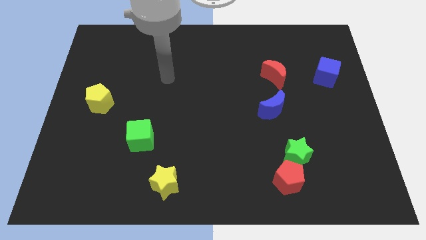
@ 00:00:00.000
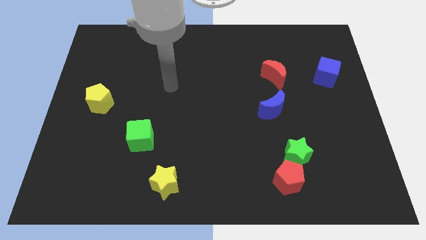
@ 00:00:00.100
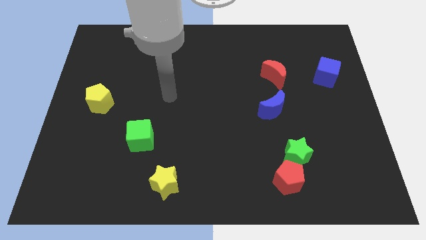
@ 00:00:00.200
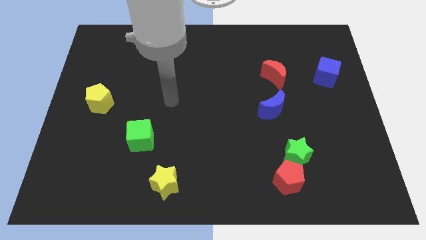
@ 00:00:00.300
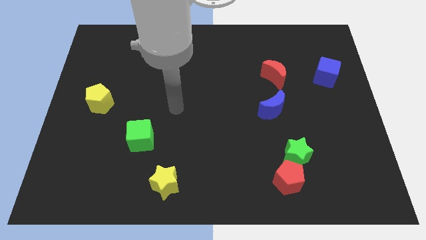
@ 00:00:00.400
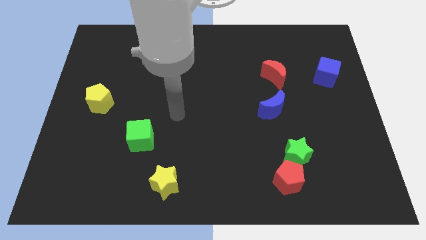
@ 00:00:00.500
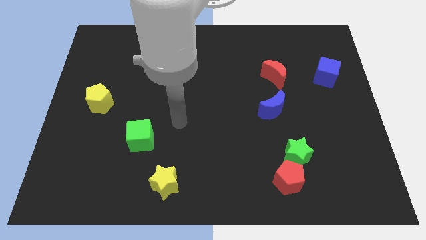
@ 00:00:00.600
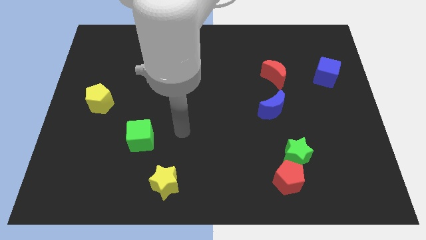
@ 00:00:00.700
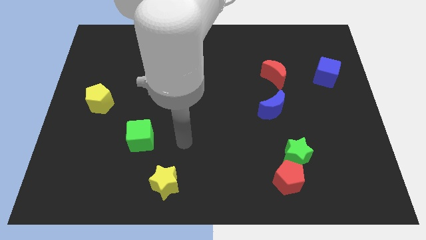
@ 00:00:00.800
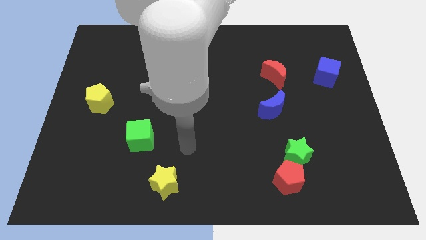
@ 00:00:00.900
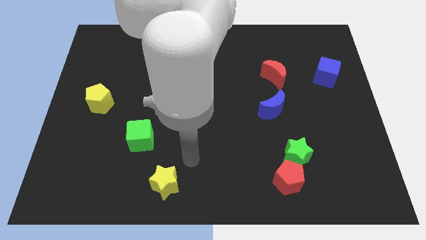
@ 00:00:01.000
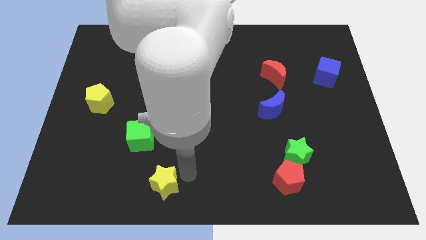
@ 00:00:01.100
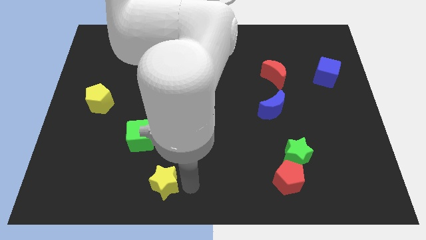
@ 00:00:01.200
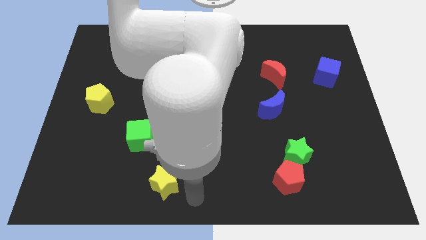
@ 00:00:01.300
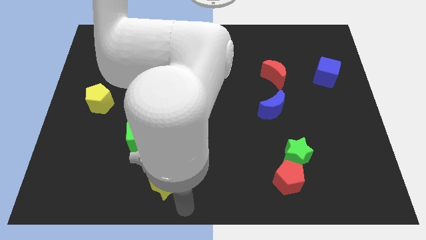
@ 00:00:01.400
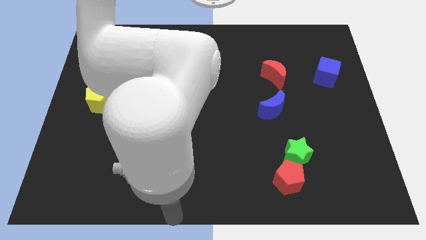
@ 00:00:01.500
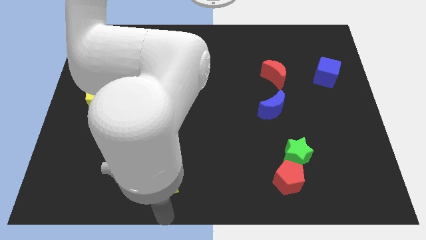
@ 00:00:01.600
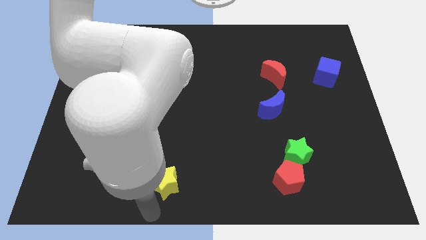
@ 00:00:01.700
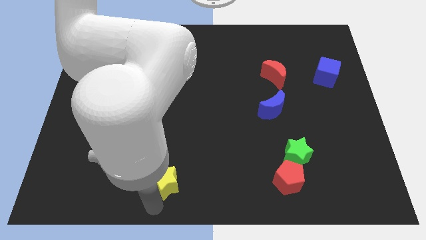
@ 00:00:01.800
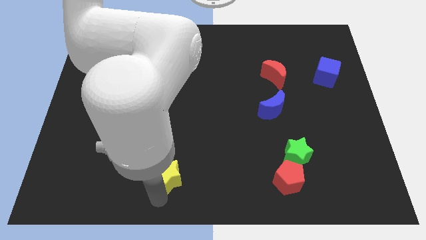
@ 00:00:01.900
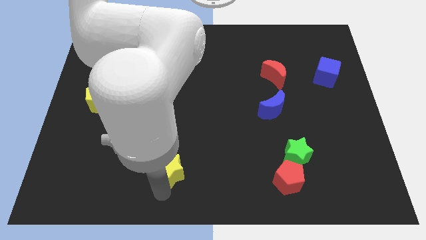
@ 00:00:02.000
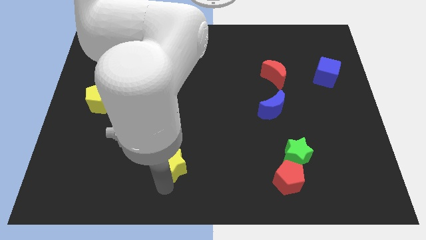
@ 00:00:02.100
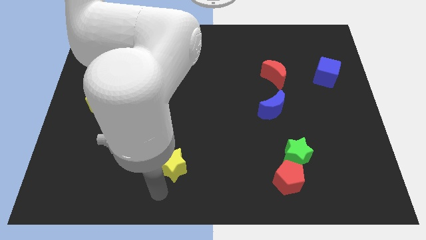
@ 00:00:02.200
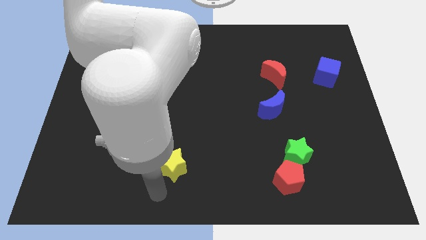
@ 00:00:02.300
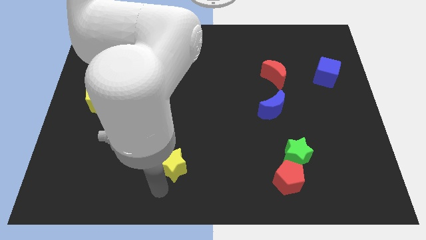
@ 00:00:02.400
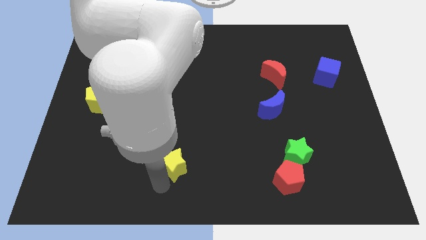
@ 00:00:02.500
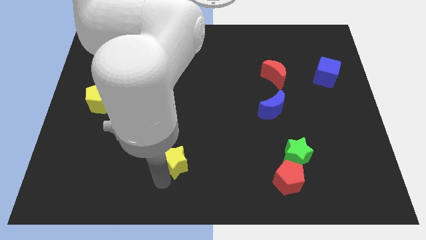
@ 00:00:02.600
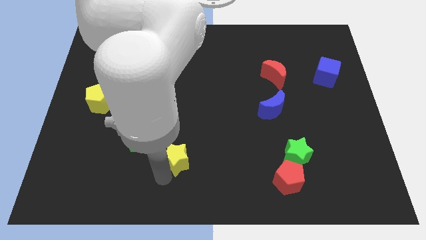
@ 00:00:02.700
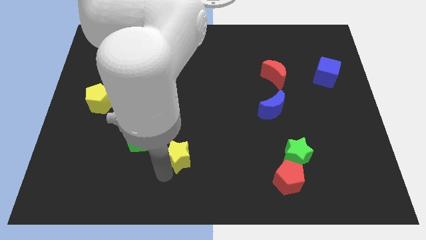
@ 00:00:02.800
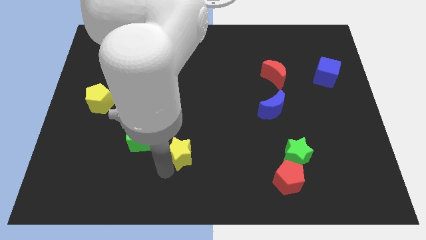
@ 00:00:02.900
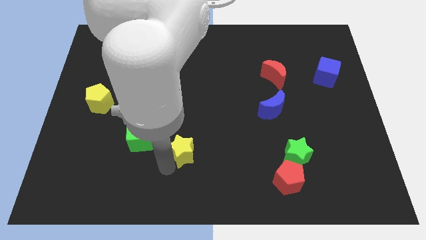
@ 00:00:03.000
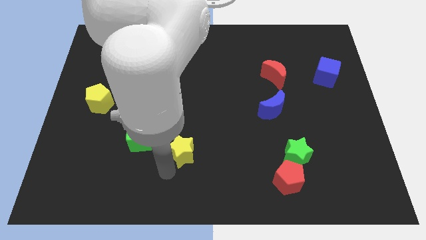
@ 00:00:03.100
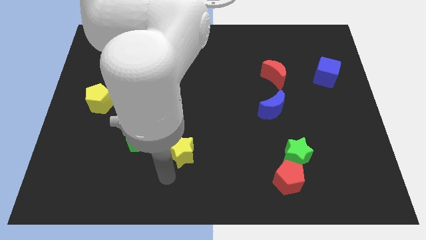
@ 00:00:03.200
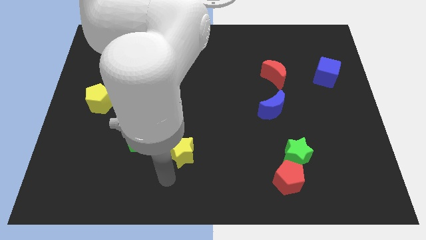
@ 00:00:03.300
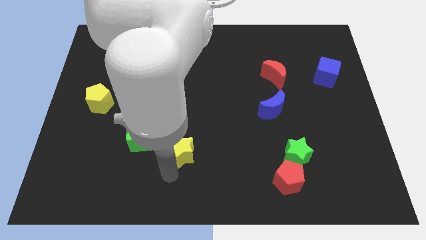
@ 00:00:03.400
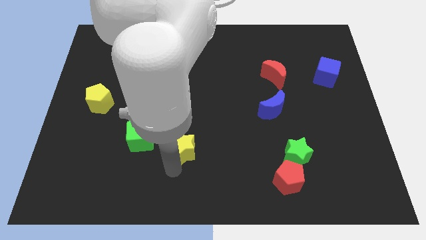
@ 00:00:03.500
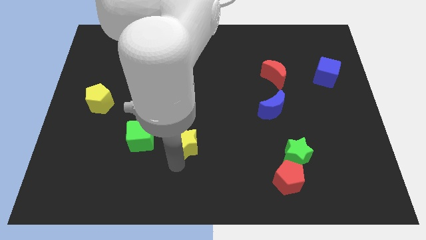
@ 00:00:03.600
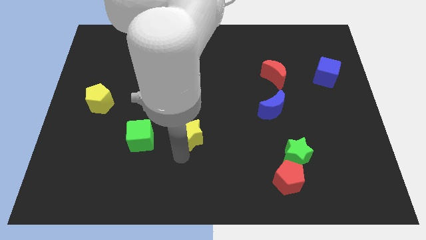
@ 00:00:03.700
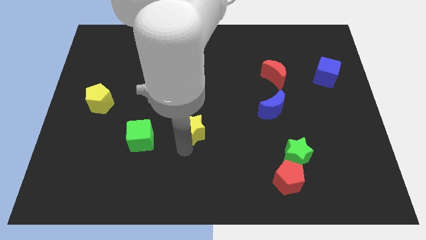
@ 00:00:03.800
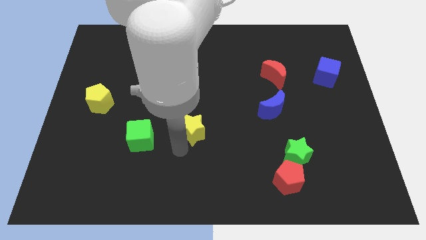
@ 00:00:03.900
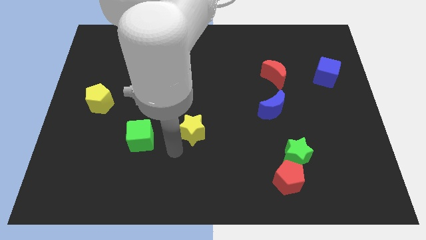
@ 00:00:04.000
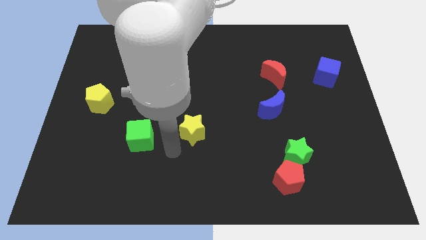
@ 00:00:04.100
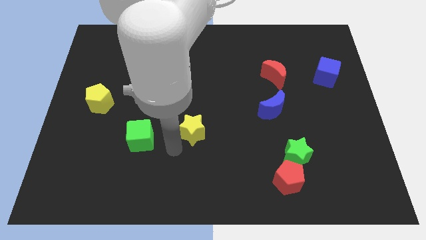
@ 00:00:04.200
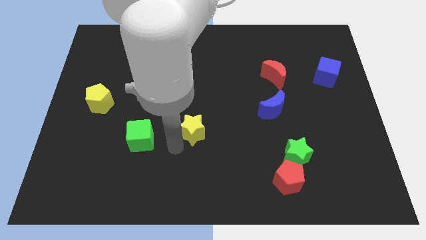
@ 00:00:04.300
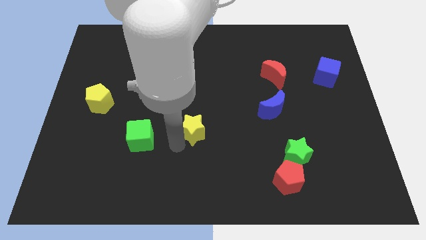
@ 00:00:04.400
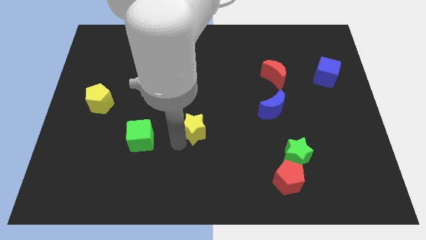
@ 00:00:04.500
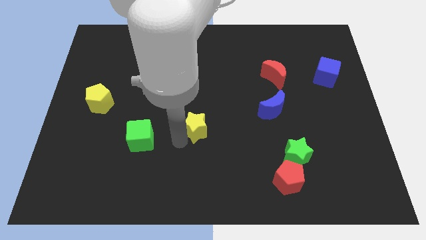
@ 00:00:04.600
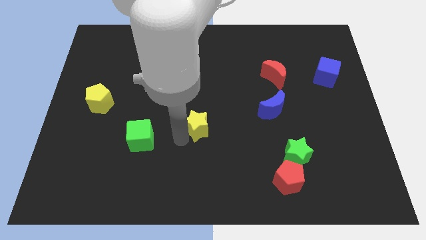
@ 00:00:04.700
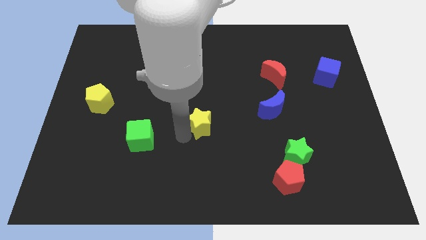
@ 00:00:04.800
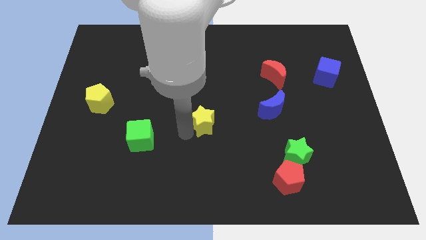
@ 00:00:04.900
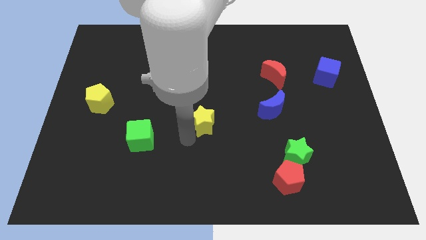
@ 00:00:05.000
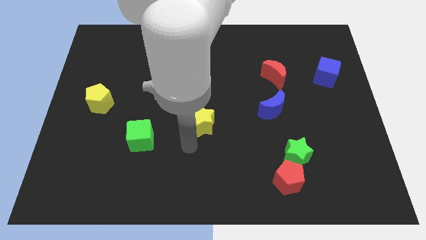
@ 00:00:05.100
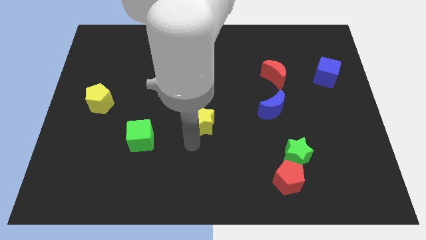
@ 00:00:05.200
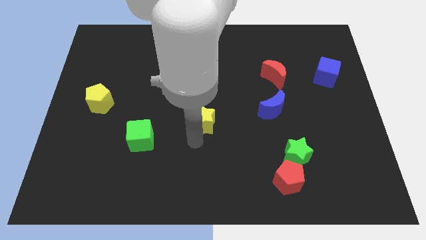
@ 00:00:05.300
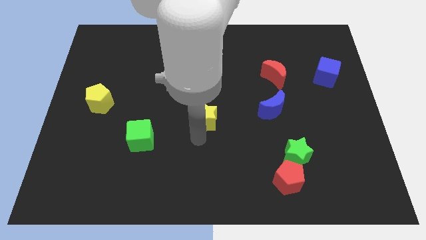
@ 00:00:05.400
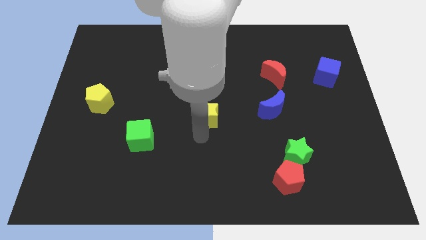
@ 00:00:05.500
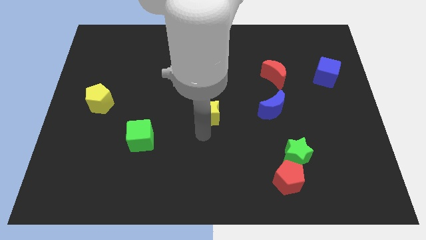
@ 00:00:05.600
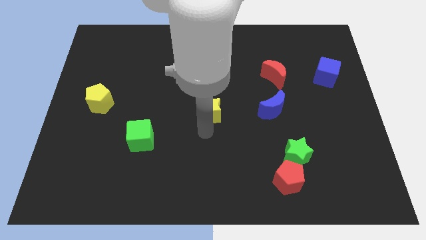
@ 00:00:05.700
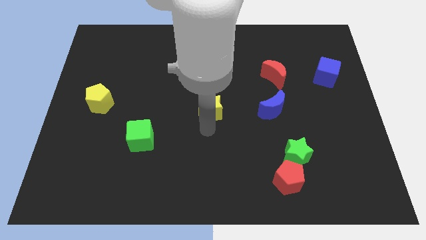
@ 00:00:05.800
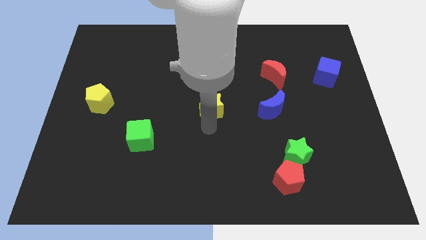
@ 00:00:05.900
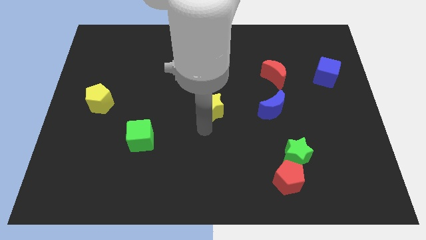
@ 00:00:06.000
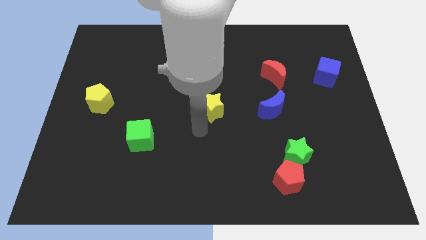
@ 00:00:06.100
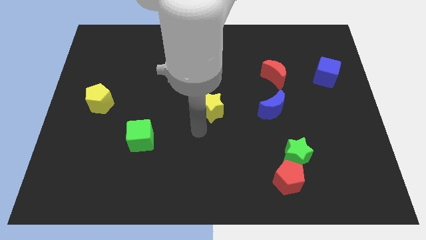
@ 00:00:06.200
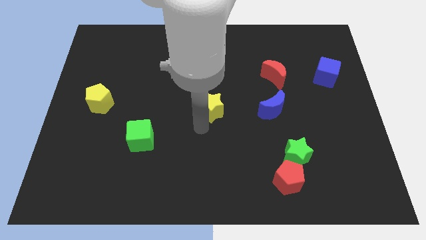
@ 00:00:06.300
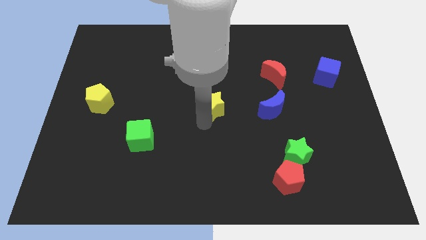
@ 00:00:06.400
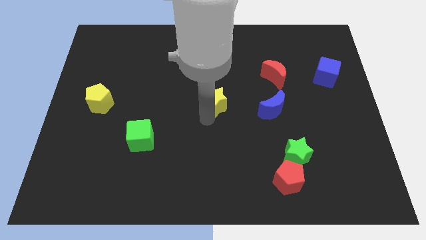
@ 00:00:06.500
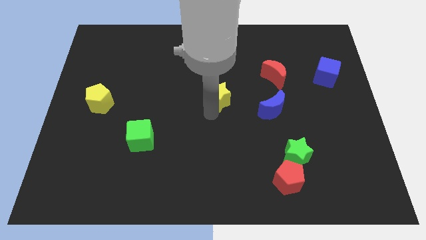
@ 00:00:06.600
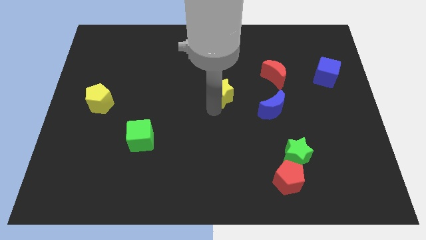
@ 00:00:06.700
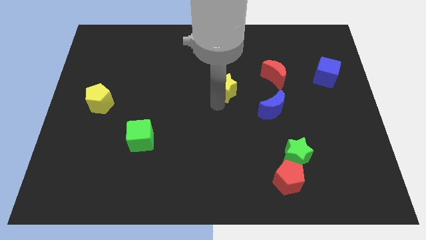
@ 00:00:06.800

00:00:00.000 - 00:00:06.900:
slide the yellow star just left of the red moon
